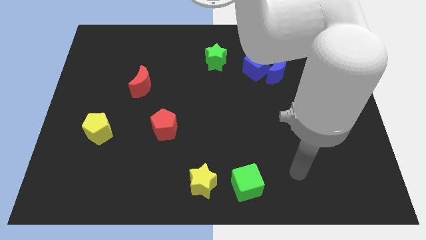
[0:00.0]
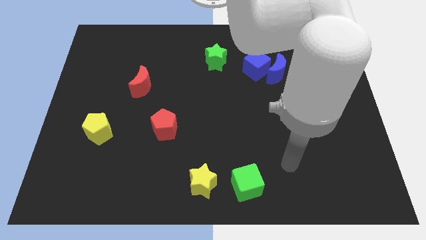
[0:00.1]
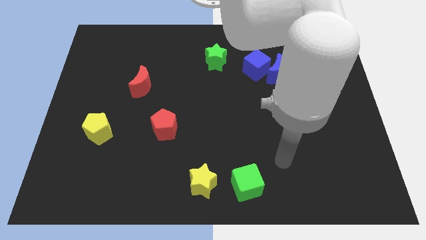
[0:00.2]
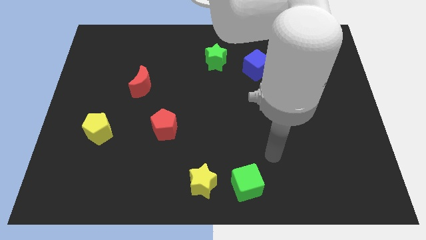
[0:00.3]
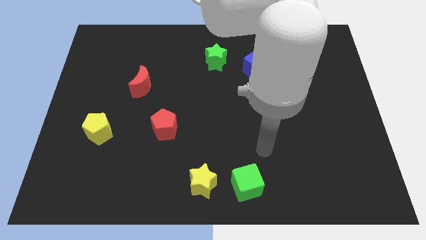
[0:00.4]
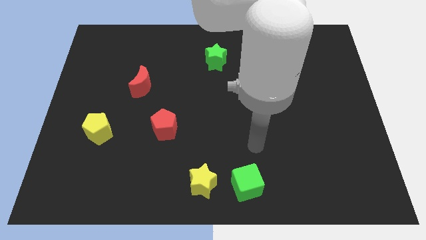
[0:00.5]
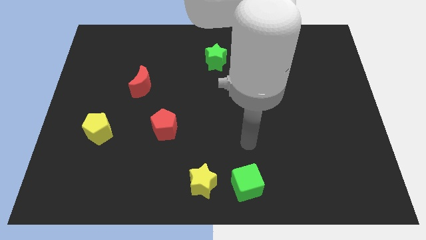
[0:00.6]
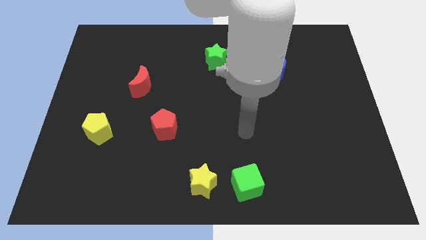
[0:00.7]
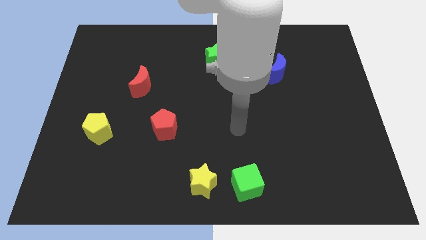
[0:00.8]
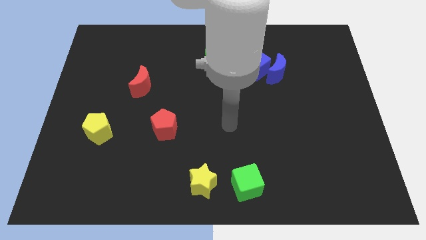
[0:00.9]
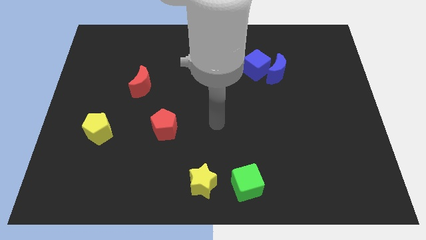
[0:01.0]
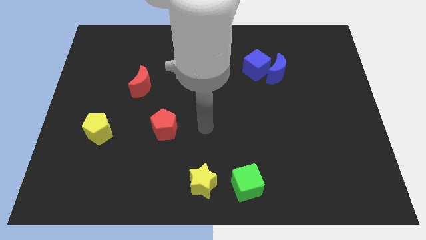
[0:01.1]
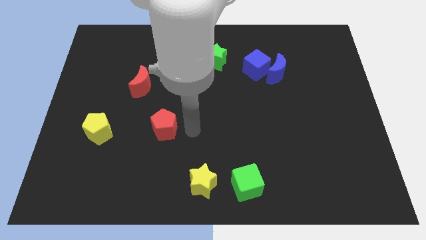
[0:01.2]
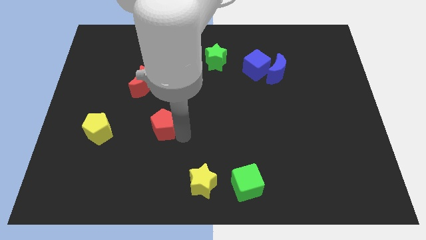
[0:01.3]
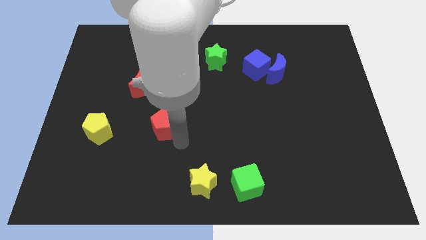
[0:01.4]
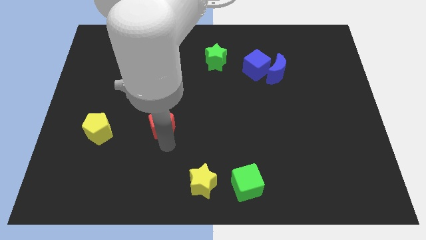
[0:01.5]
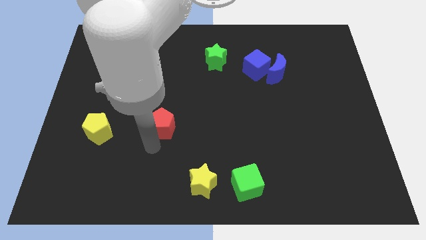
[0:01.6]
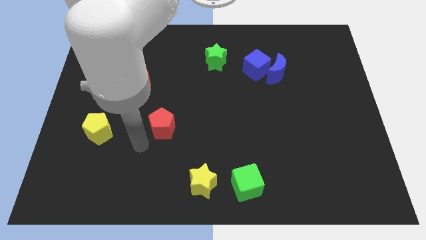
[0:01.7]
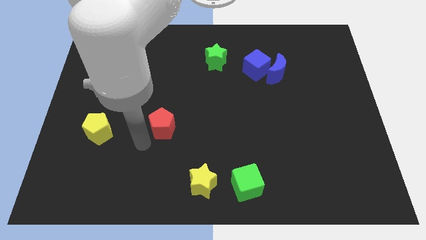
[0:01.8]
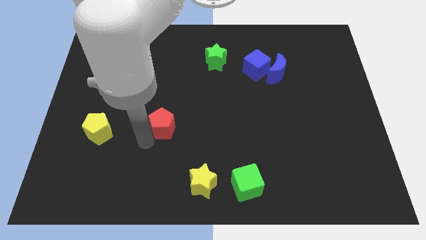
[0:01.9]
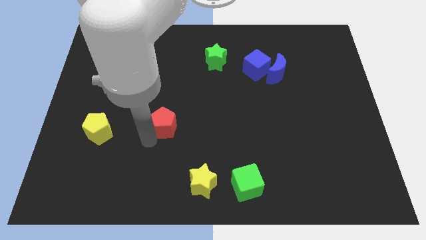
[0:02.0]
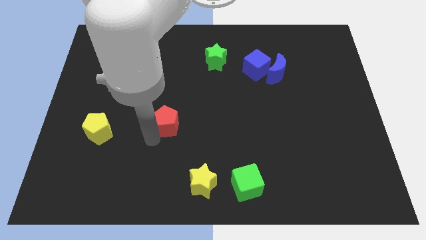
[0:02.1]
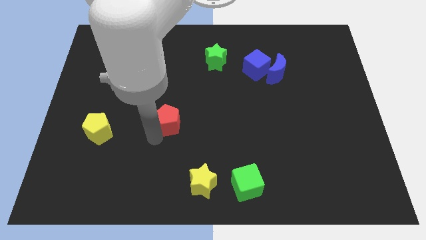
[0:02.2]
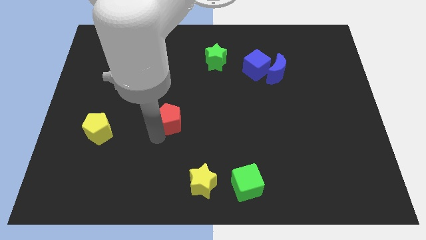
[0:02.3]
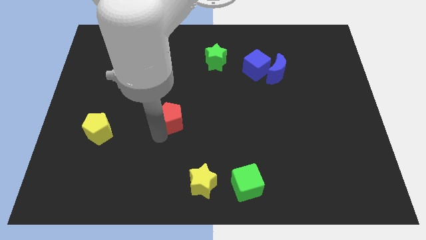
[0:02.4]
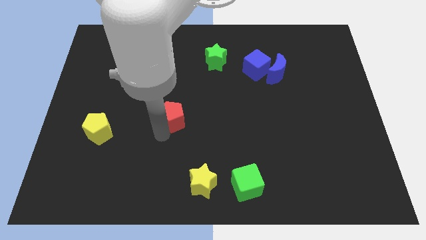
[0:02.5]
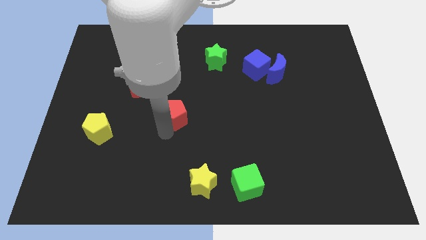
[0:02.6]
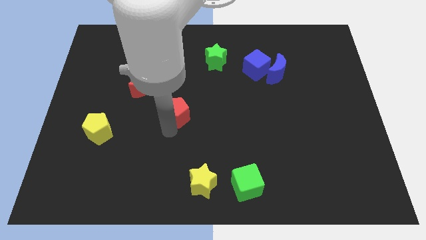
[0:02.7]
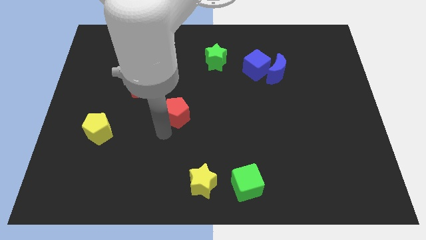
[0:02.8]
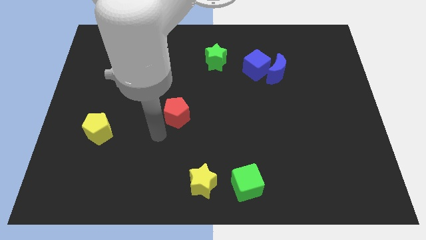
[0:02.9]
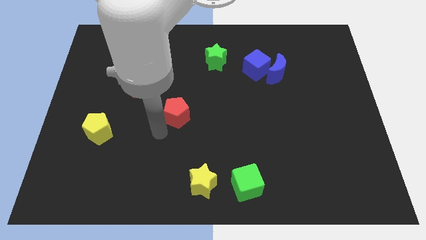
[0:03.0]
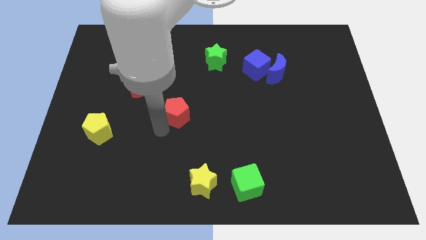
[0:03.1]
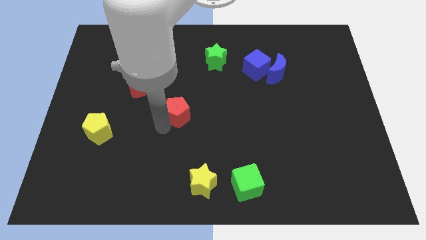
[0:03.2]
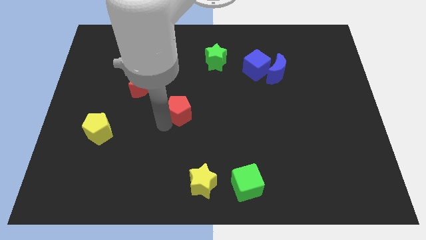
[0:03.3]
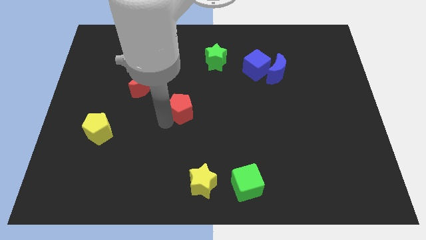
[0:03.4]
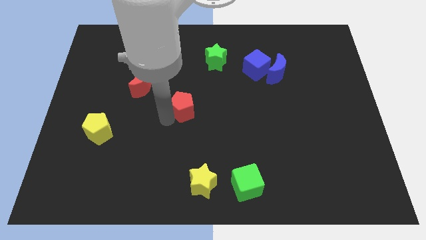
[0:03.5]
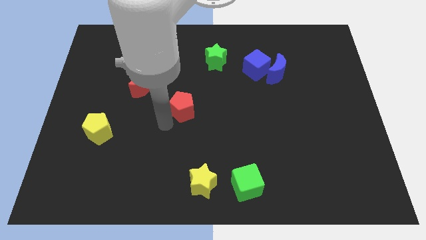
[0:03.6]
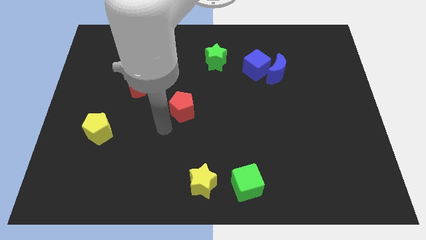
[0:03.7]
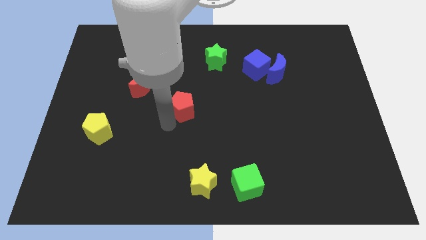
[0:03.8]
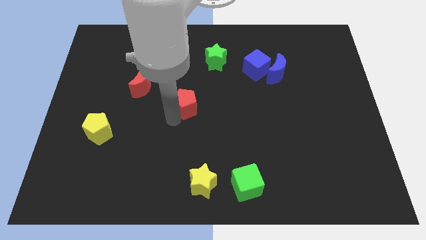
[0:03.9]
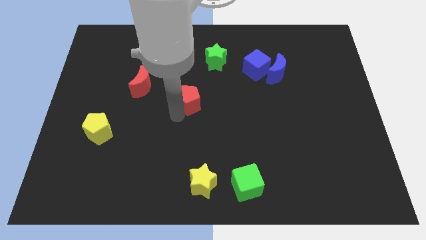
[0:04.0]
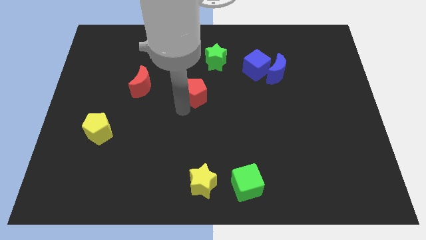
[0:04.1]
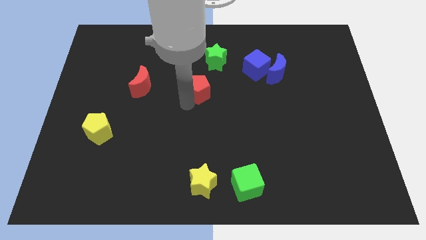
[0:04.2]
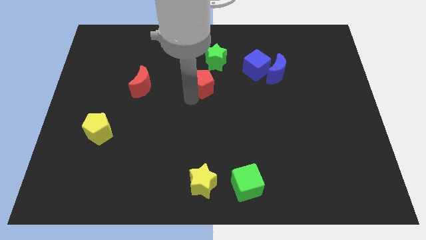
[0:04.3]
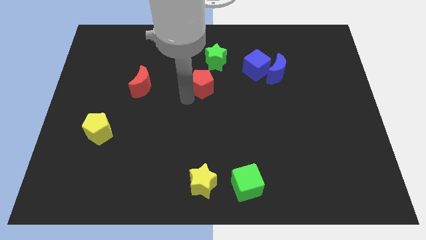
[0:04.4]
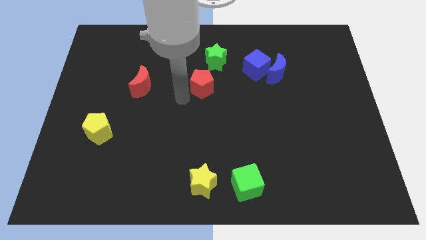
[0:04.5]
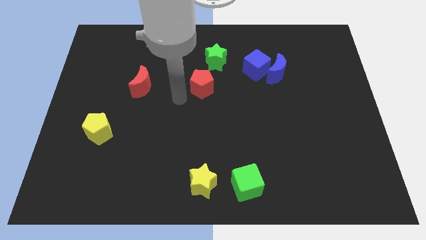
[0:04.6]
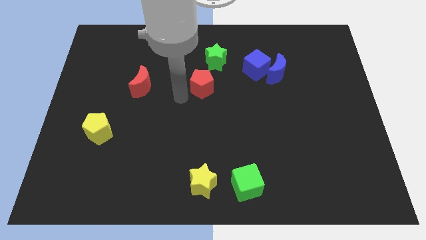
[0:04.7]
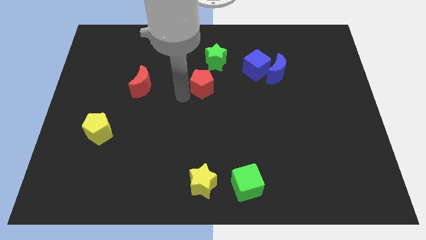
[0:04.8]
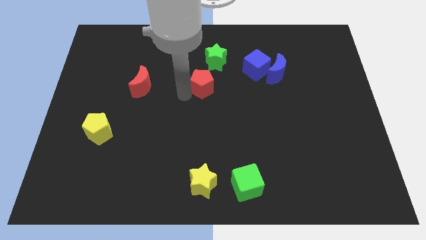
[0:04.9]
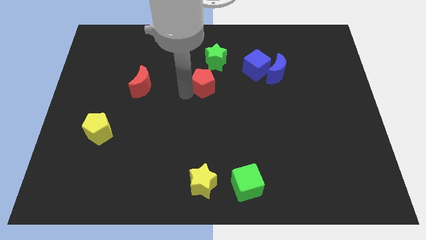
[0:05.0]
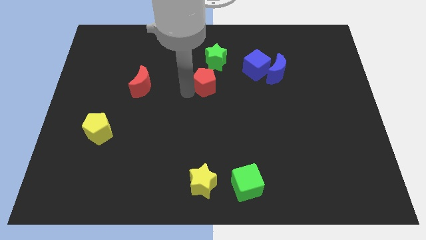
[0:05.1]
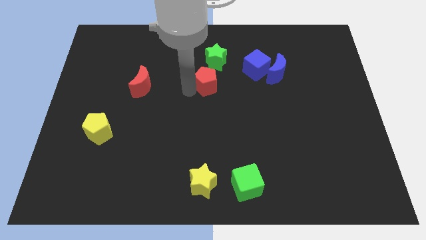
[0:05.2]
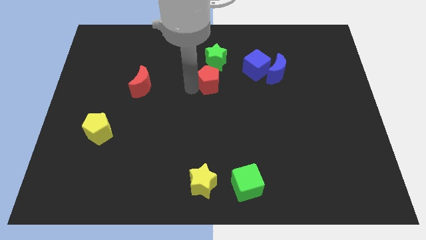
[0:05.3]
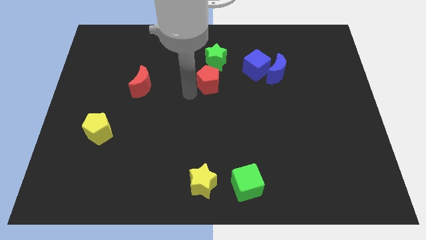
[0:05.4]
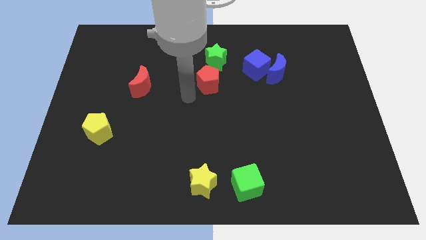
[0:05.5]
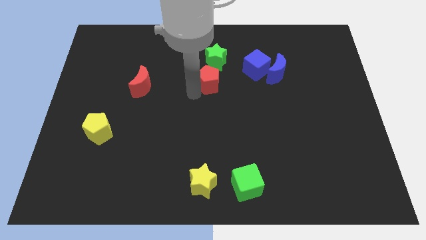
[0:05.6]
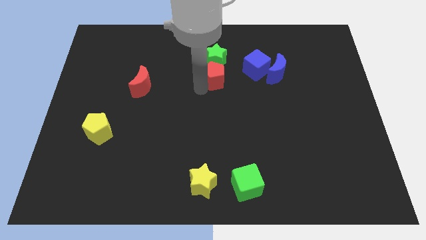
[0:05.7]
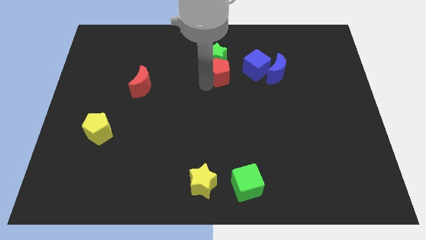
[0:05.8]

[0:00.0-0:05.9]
move the red pentagon up and to the right diagonally

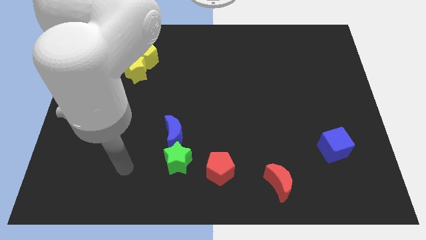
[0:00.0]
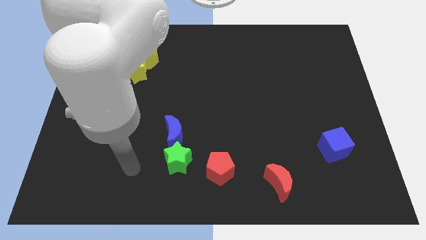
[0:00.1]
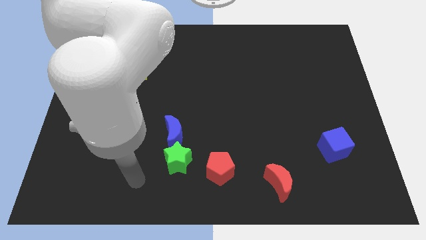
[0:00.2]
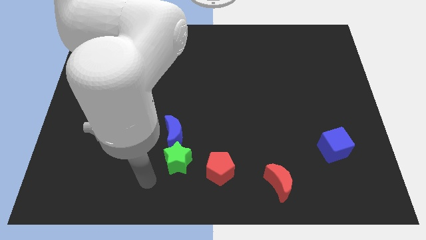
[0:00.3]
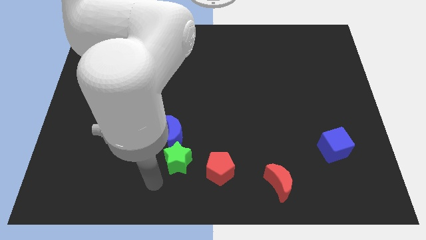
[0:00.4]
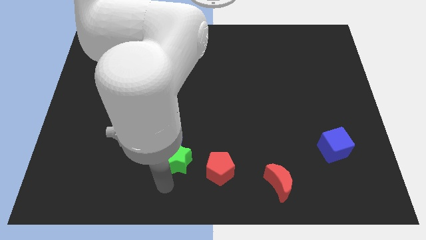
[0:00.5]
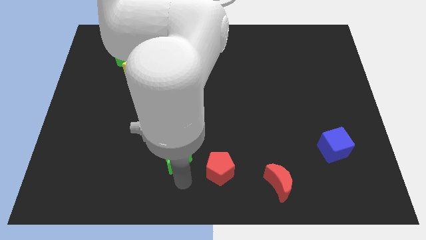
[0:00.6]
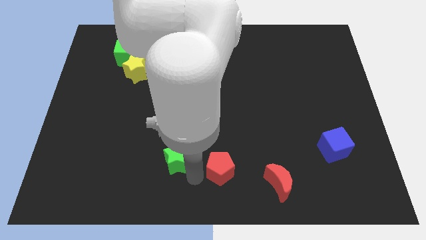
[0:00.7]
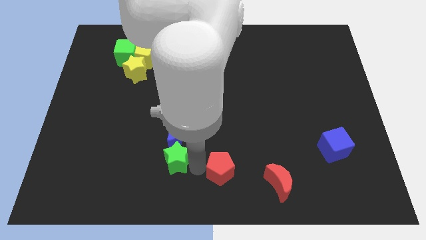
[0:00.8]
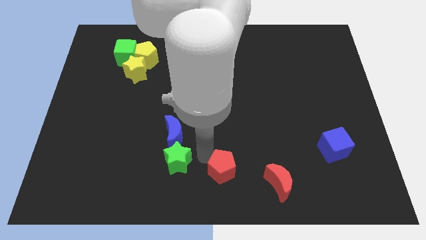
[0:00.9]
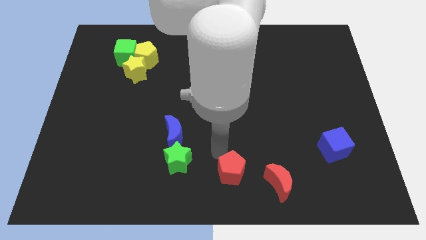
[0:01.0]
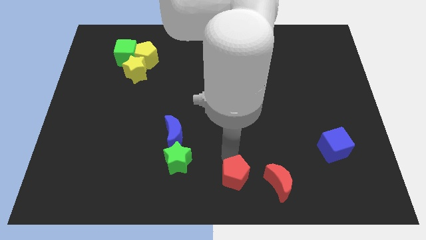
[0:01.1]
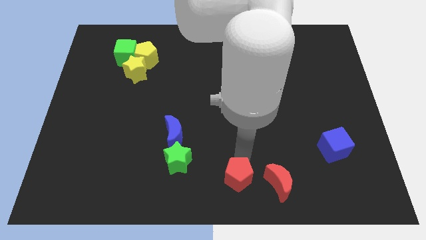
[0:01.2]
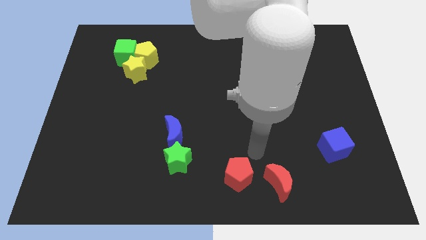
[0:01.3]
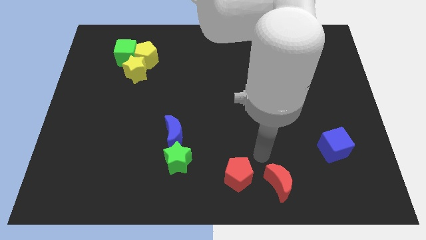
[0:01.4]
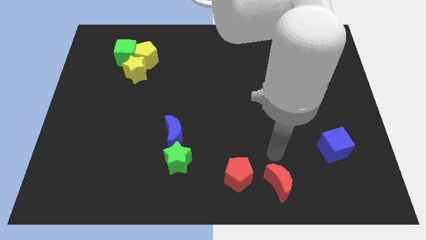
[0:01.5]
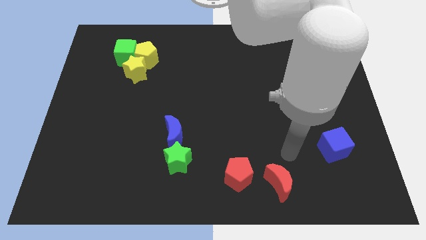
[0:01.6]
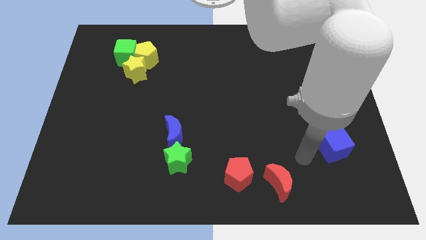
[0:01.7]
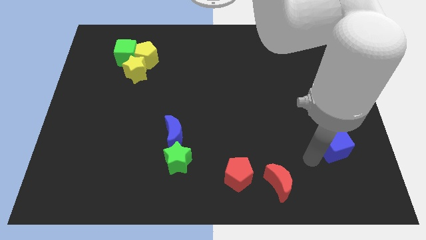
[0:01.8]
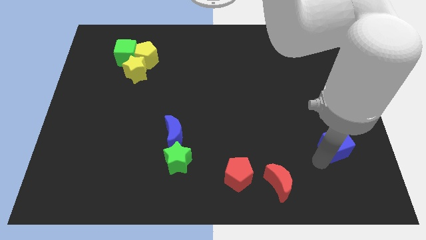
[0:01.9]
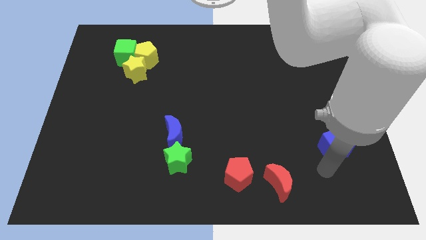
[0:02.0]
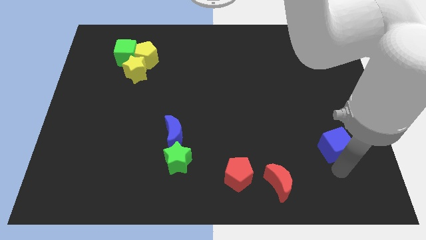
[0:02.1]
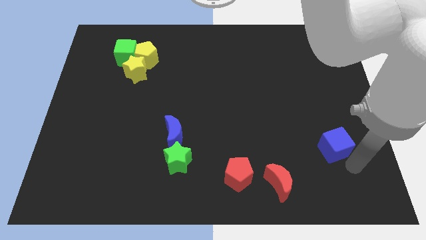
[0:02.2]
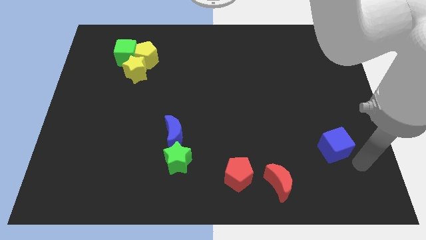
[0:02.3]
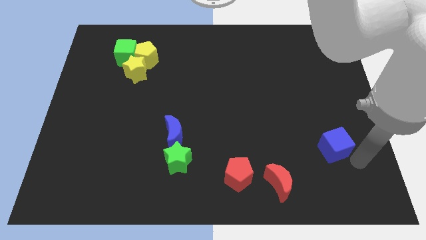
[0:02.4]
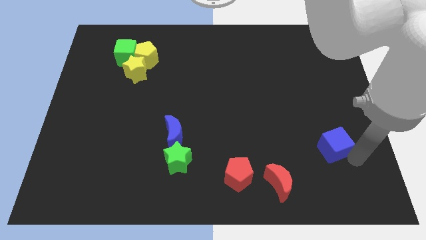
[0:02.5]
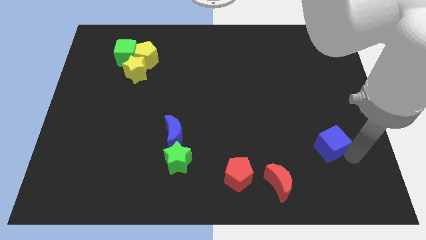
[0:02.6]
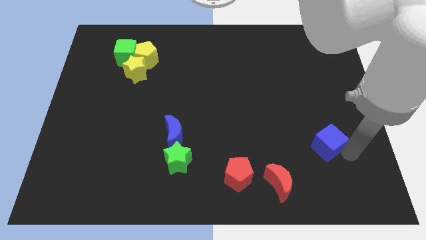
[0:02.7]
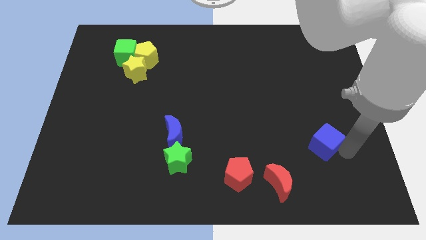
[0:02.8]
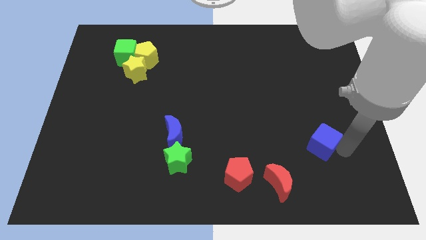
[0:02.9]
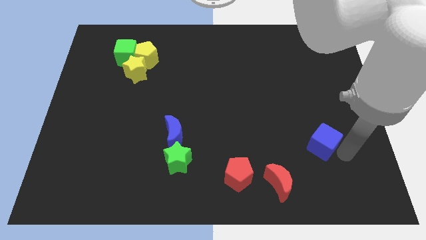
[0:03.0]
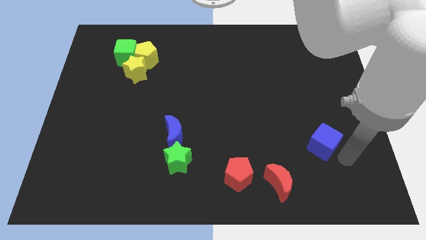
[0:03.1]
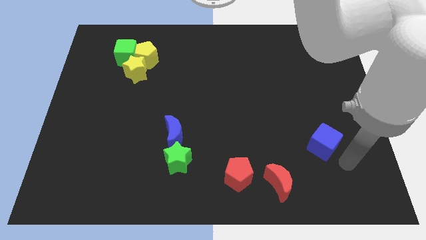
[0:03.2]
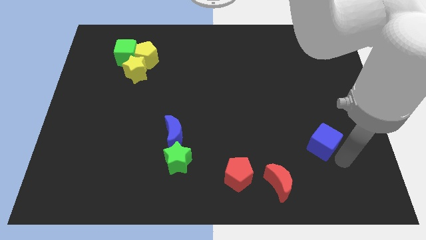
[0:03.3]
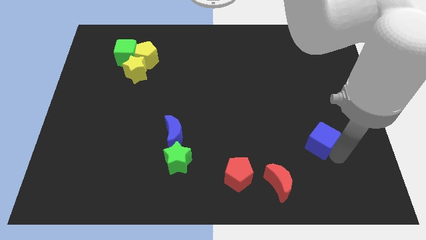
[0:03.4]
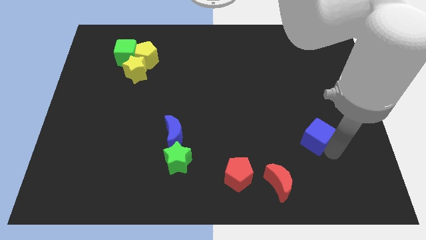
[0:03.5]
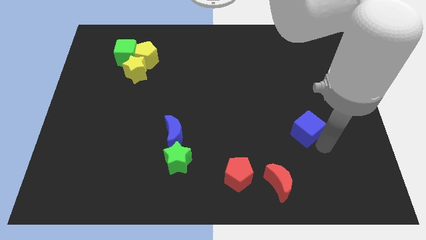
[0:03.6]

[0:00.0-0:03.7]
push the blue cube upwards and left diagonally somewhat
